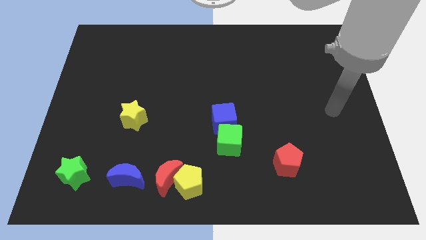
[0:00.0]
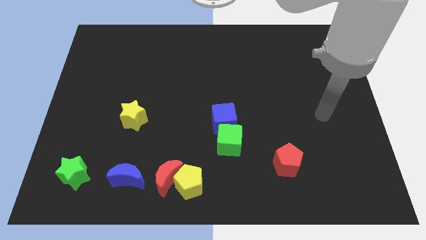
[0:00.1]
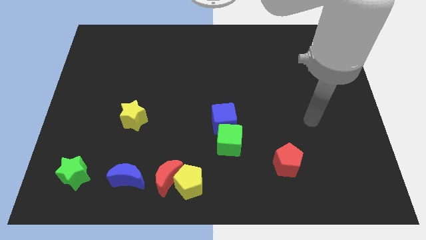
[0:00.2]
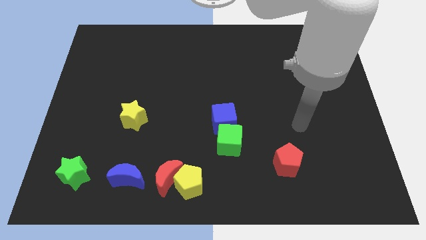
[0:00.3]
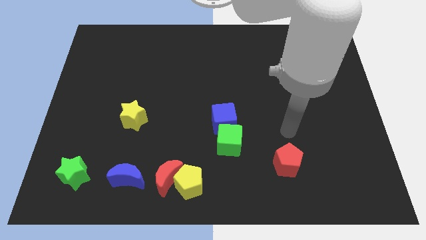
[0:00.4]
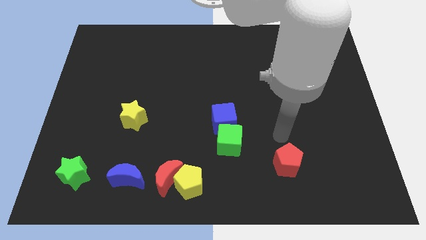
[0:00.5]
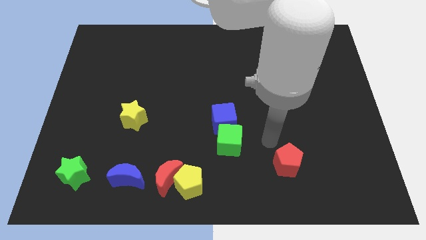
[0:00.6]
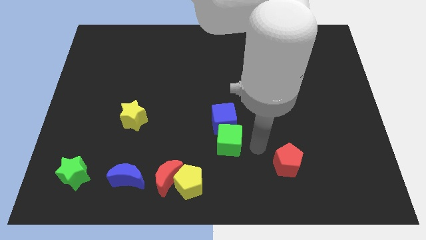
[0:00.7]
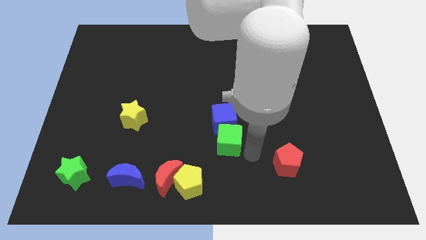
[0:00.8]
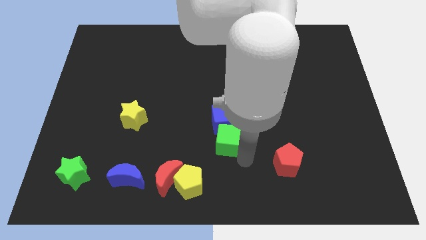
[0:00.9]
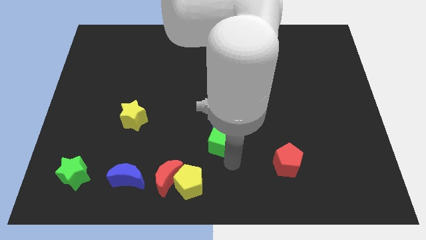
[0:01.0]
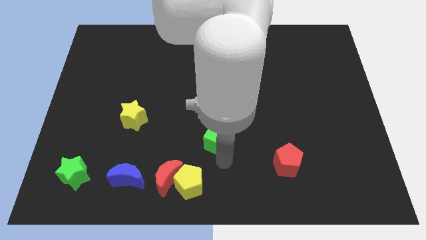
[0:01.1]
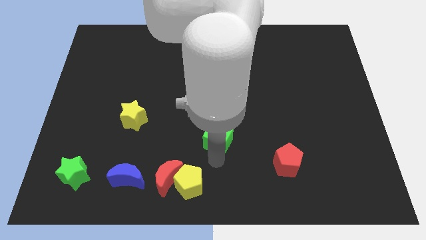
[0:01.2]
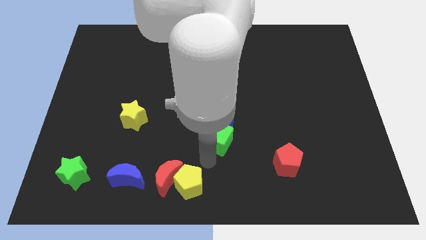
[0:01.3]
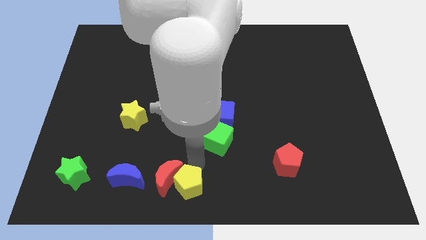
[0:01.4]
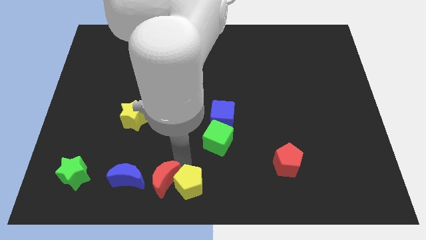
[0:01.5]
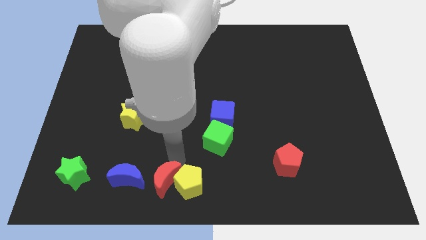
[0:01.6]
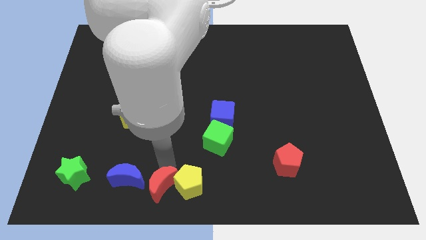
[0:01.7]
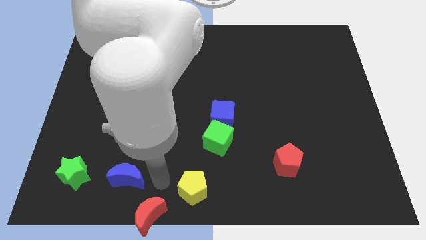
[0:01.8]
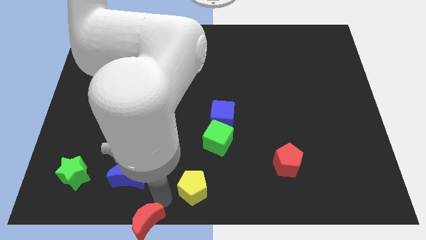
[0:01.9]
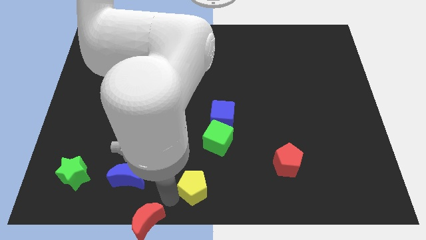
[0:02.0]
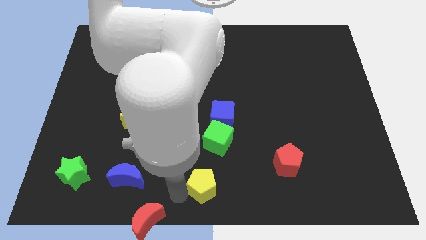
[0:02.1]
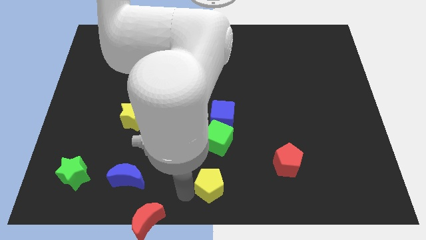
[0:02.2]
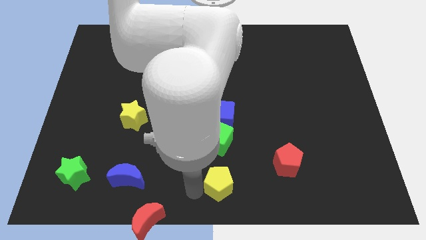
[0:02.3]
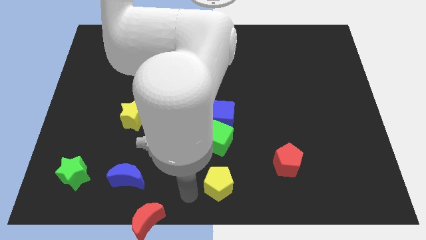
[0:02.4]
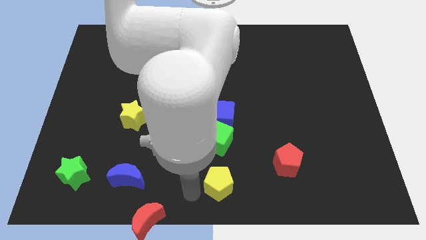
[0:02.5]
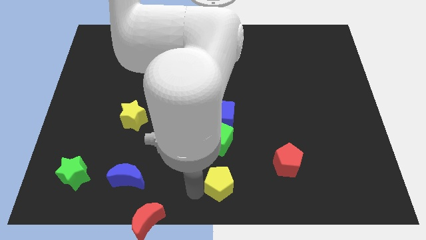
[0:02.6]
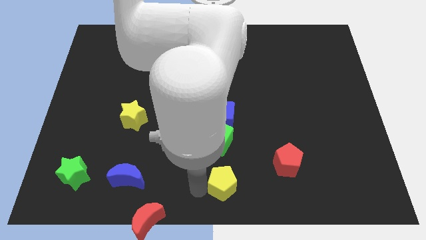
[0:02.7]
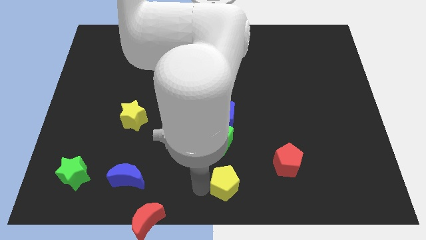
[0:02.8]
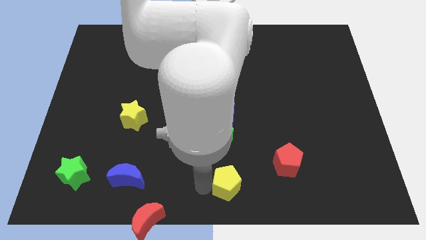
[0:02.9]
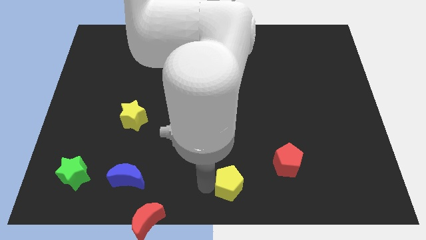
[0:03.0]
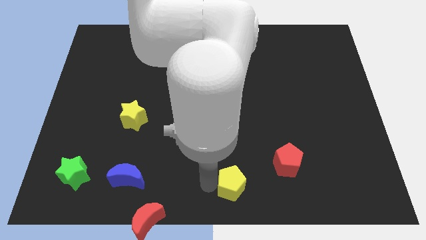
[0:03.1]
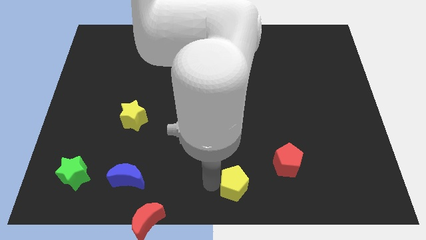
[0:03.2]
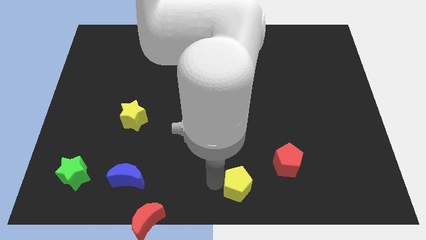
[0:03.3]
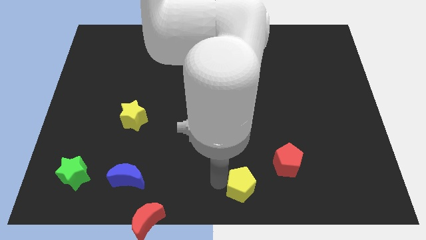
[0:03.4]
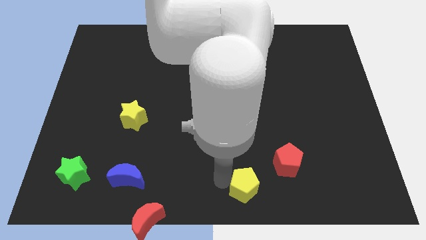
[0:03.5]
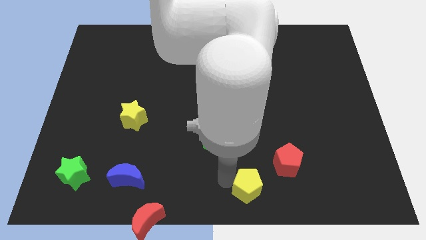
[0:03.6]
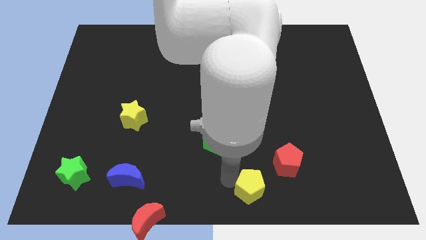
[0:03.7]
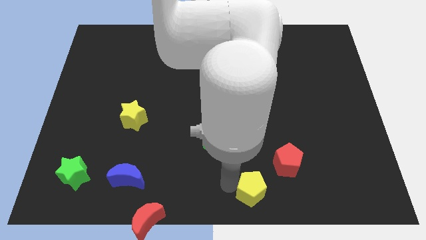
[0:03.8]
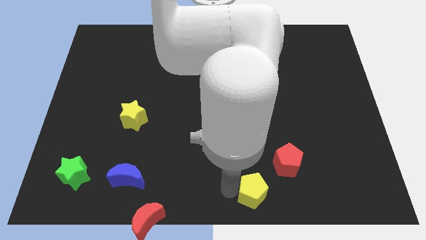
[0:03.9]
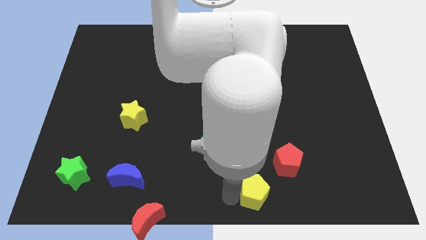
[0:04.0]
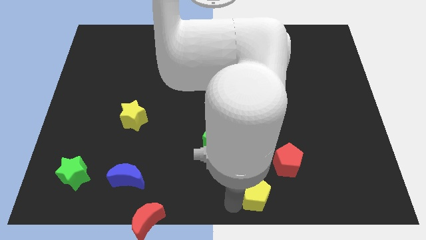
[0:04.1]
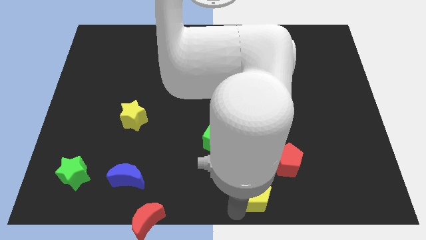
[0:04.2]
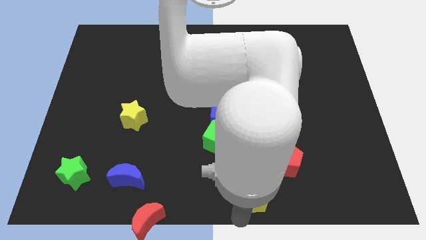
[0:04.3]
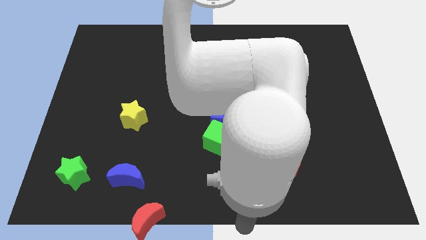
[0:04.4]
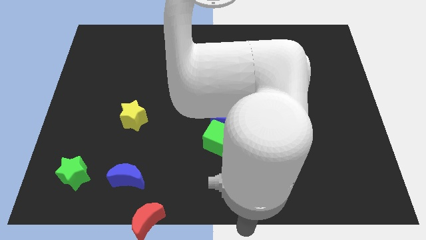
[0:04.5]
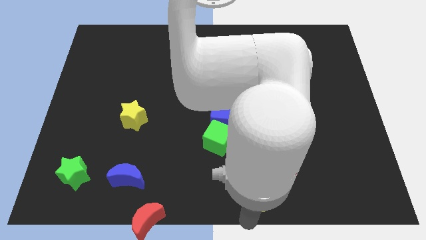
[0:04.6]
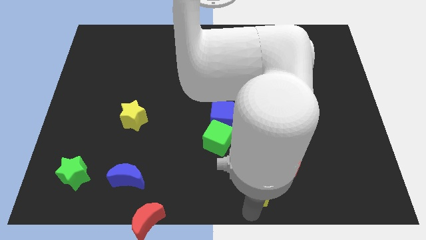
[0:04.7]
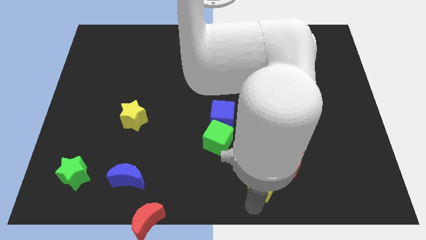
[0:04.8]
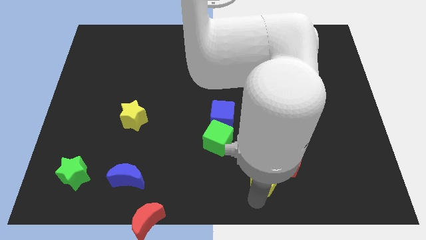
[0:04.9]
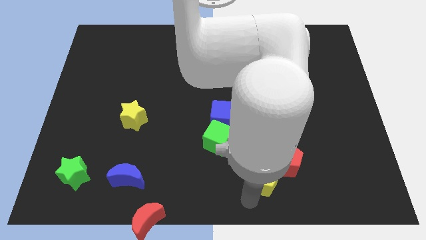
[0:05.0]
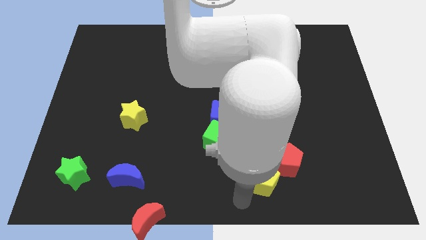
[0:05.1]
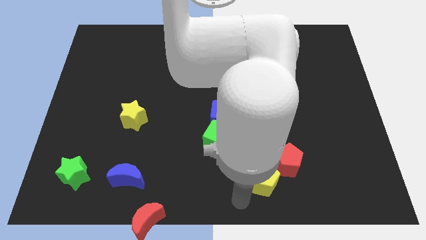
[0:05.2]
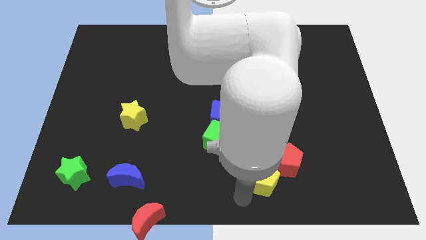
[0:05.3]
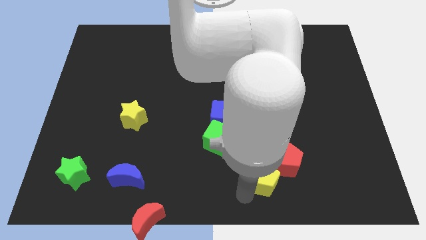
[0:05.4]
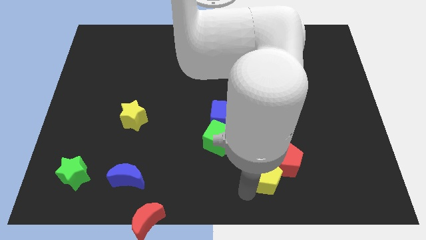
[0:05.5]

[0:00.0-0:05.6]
move the yellow pentagon to the red pentagon
